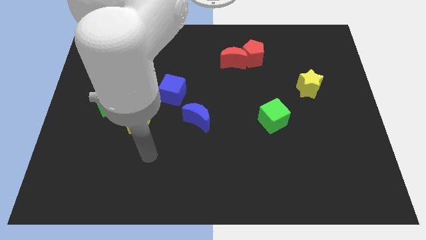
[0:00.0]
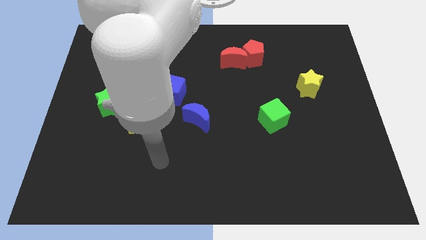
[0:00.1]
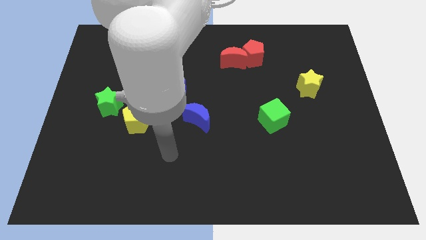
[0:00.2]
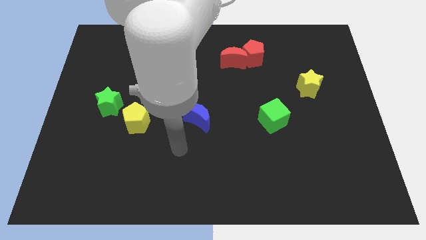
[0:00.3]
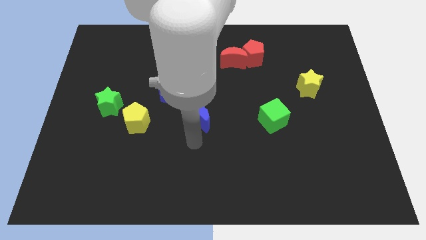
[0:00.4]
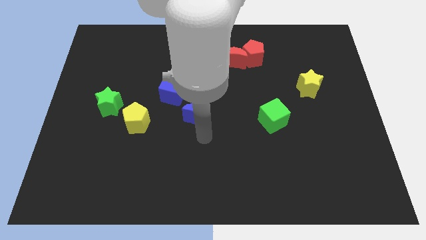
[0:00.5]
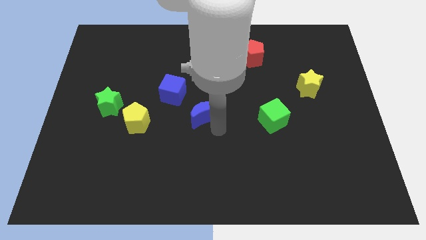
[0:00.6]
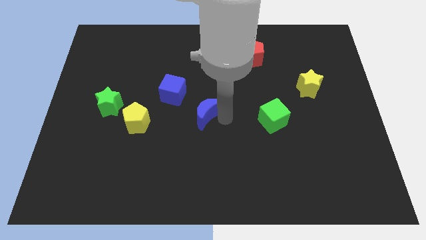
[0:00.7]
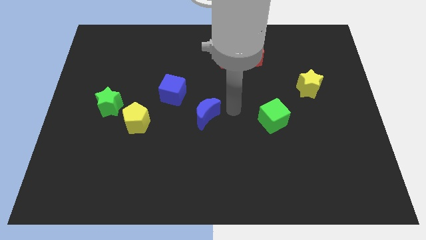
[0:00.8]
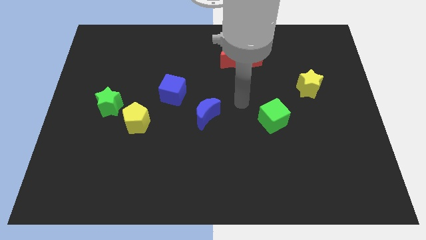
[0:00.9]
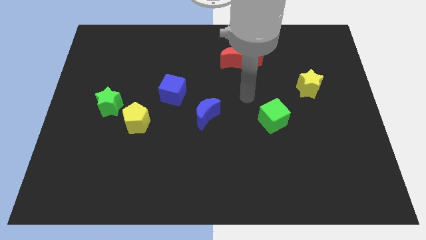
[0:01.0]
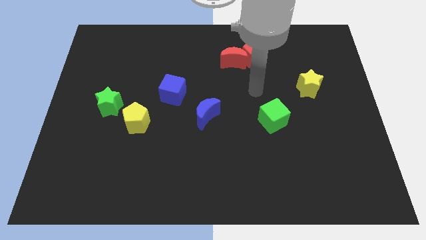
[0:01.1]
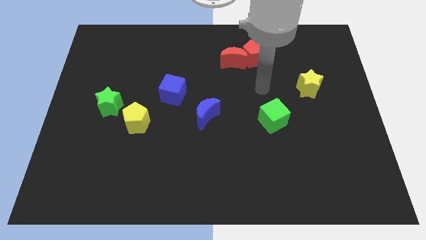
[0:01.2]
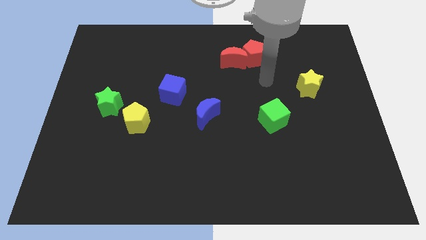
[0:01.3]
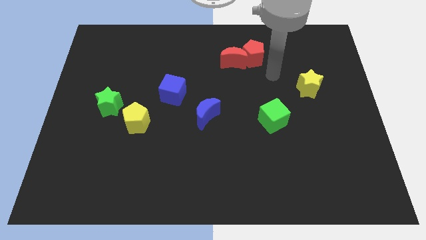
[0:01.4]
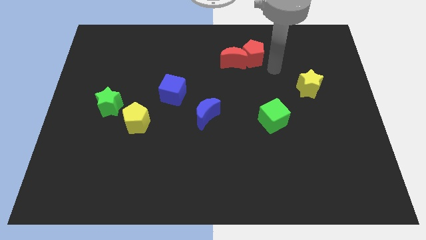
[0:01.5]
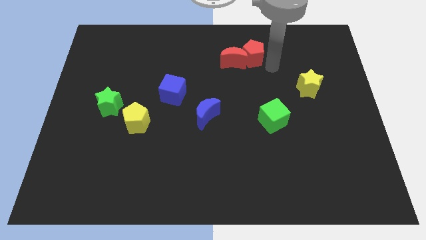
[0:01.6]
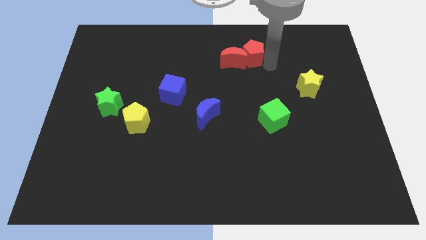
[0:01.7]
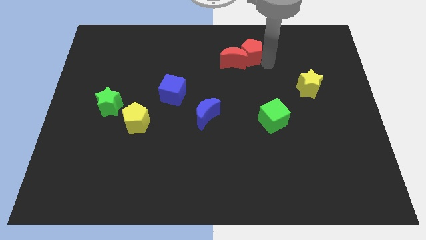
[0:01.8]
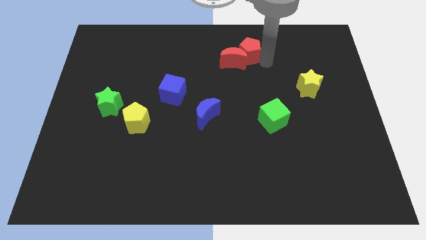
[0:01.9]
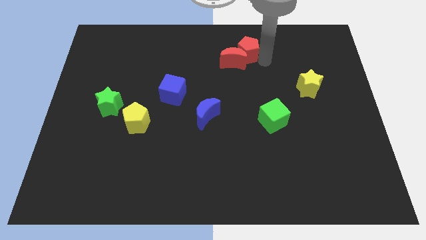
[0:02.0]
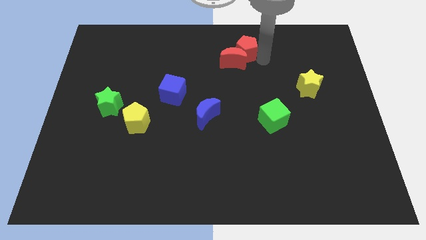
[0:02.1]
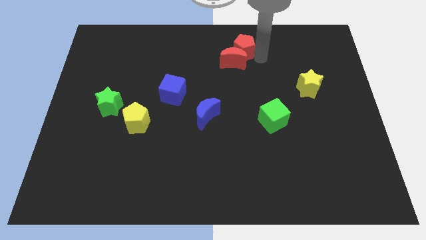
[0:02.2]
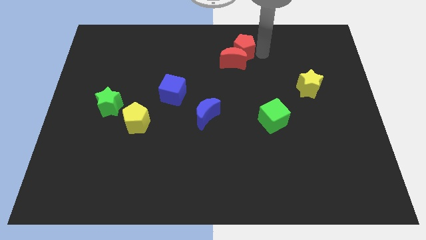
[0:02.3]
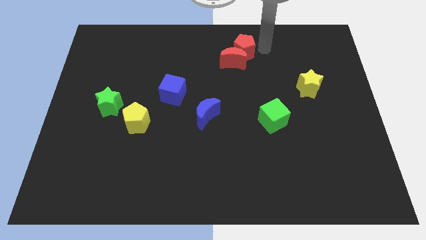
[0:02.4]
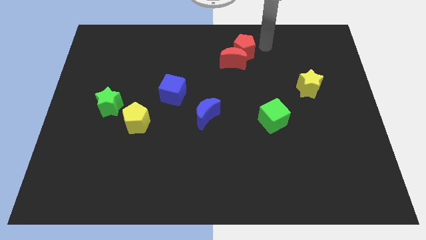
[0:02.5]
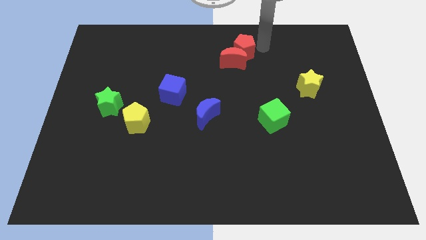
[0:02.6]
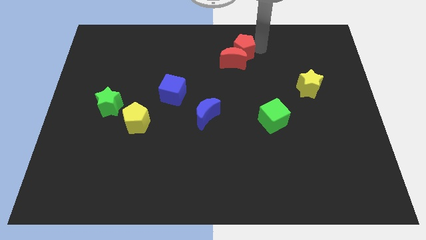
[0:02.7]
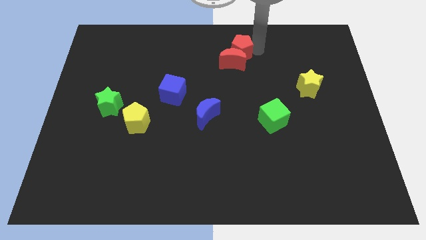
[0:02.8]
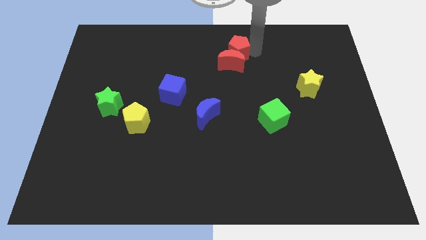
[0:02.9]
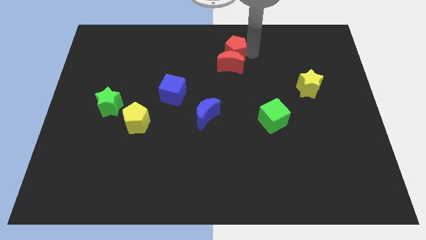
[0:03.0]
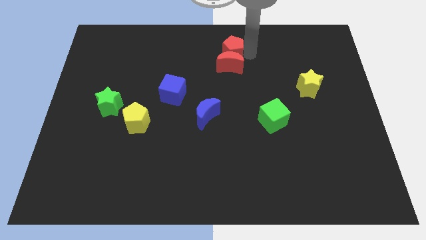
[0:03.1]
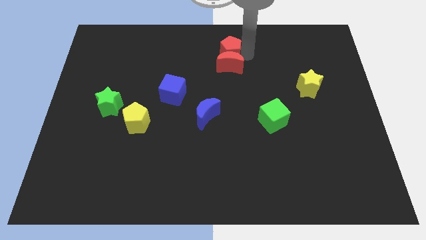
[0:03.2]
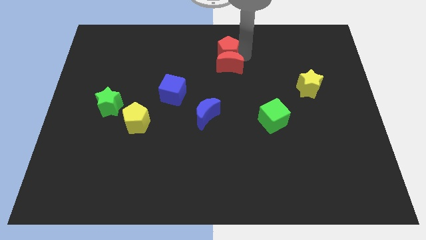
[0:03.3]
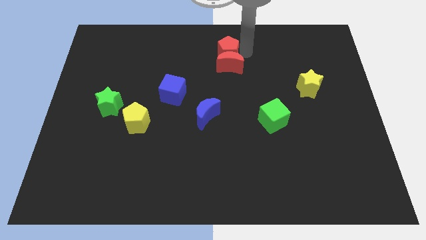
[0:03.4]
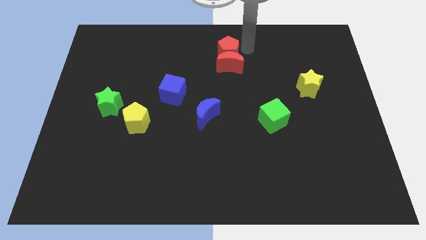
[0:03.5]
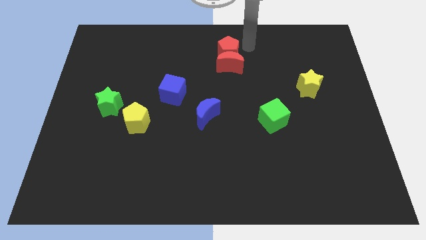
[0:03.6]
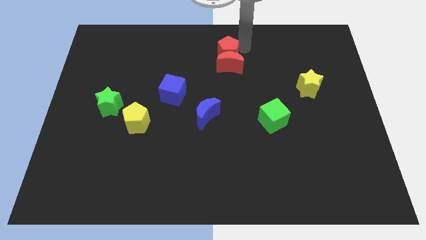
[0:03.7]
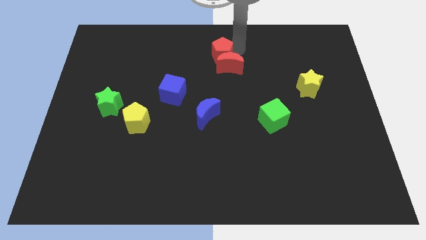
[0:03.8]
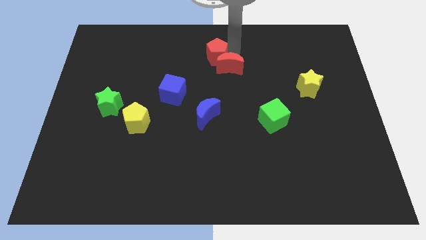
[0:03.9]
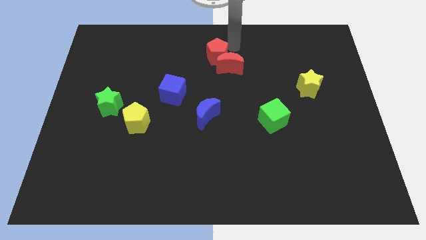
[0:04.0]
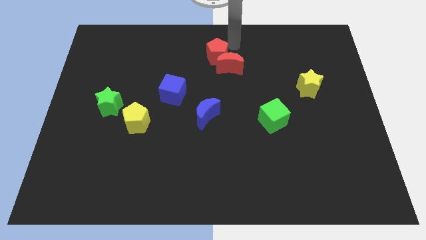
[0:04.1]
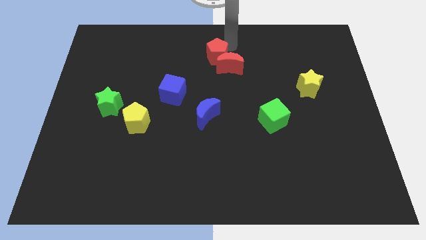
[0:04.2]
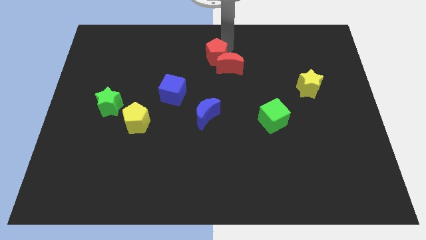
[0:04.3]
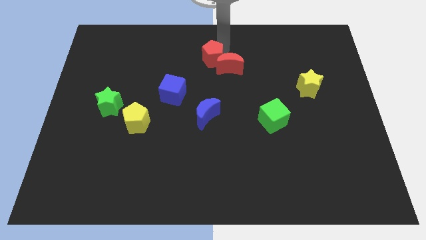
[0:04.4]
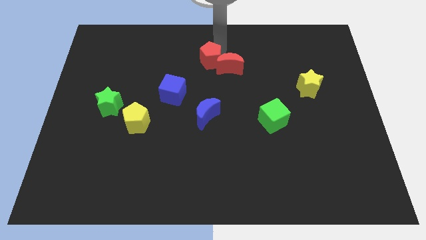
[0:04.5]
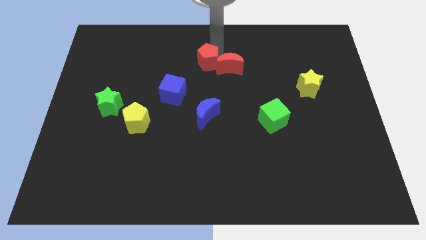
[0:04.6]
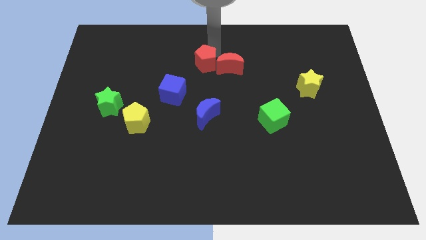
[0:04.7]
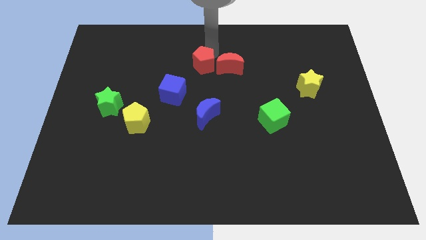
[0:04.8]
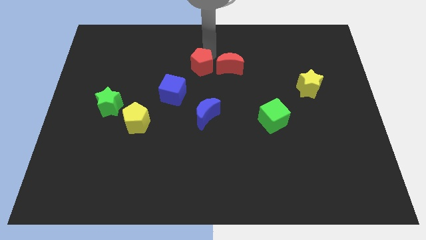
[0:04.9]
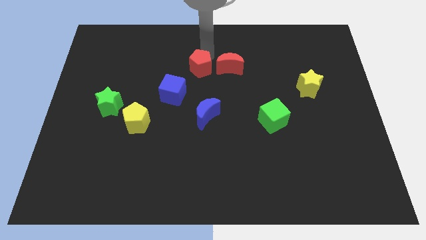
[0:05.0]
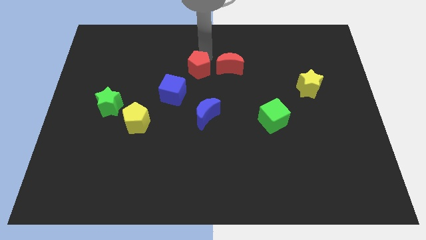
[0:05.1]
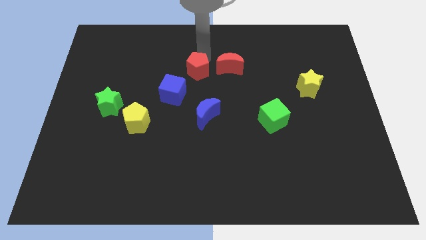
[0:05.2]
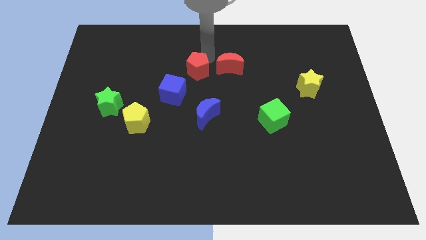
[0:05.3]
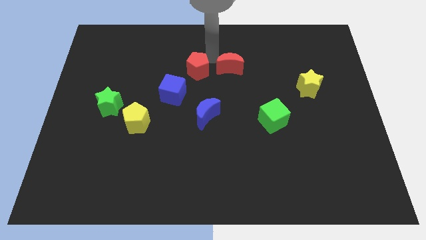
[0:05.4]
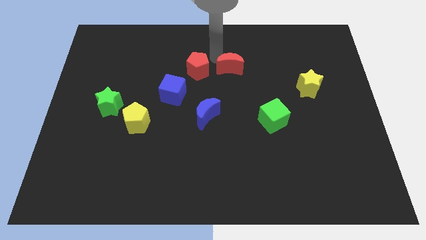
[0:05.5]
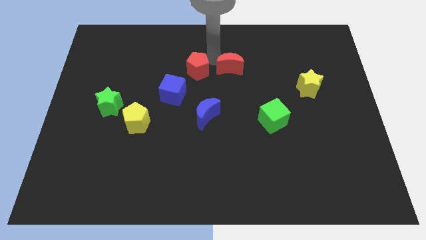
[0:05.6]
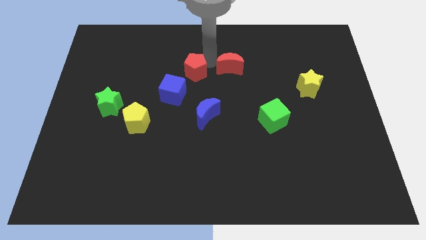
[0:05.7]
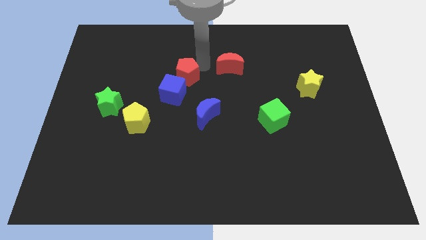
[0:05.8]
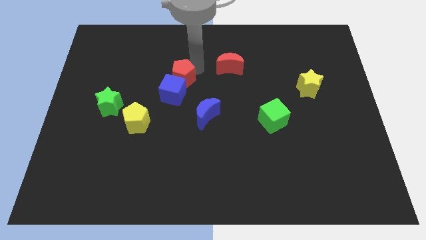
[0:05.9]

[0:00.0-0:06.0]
move the red pentagon to the blue cube

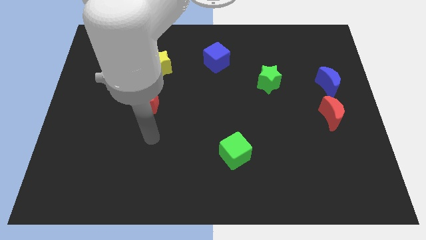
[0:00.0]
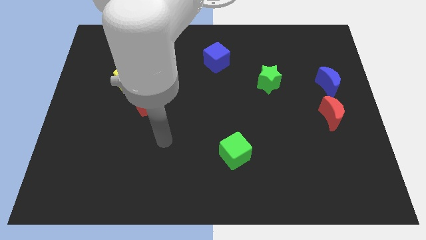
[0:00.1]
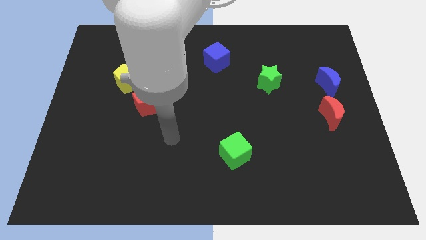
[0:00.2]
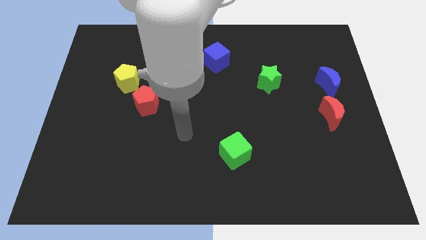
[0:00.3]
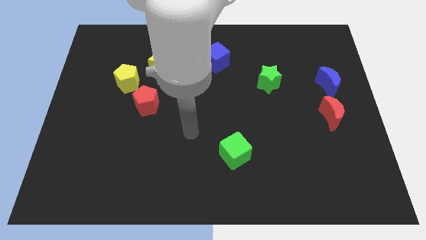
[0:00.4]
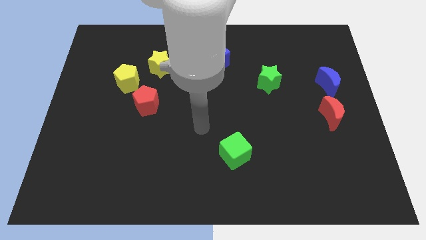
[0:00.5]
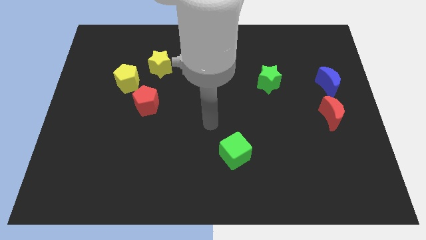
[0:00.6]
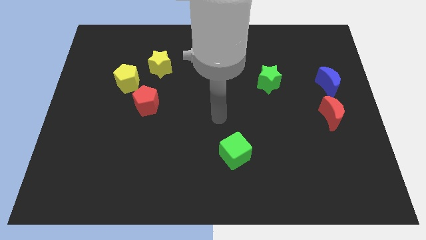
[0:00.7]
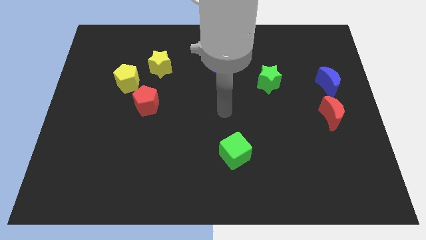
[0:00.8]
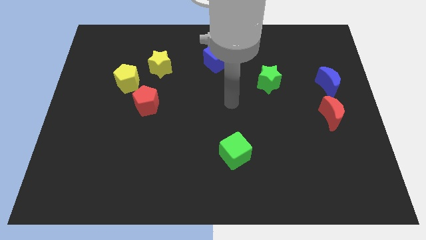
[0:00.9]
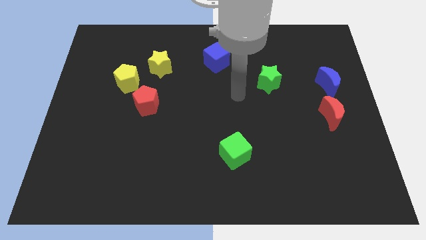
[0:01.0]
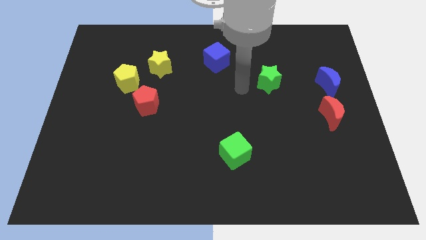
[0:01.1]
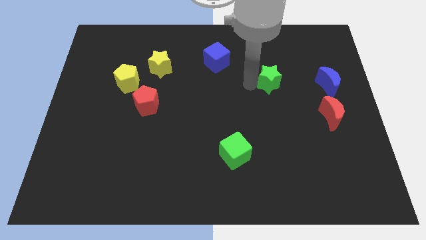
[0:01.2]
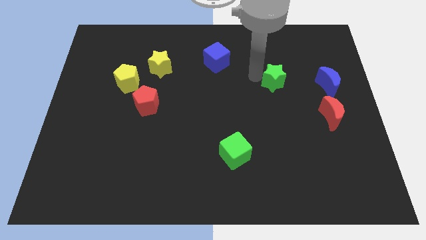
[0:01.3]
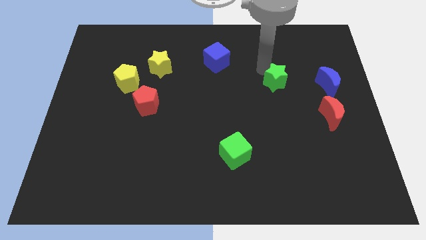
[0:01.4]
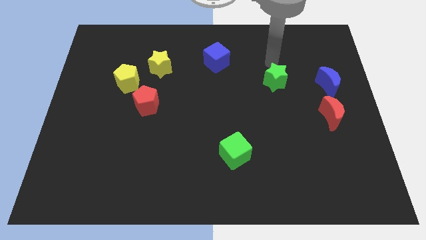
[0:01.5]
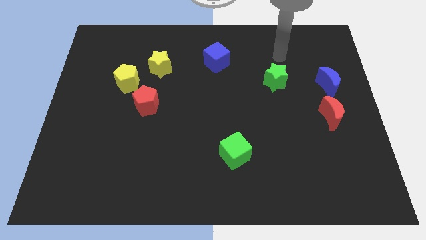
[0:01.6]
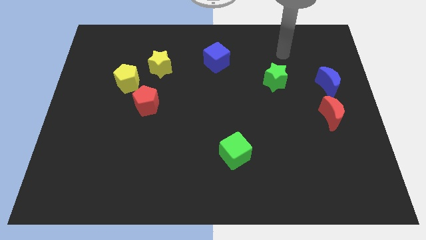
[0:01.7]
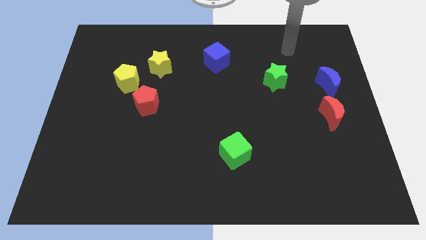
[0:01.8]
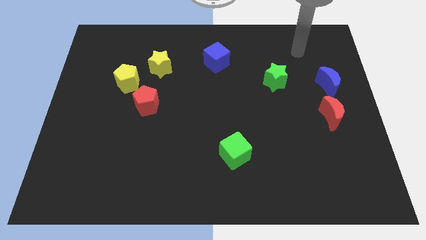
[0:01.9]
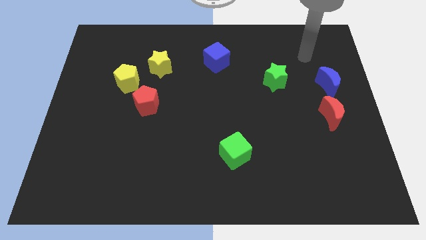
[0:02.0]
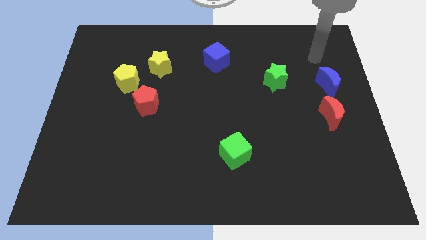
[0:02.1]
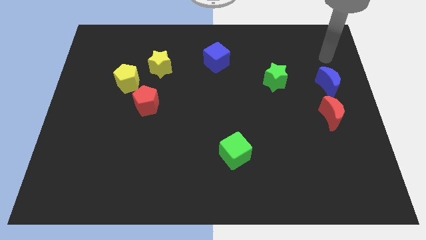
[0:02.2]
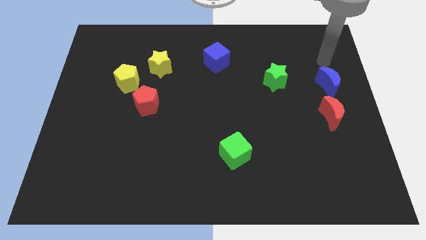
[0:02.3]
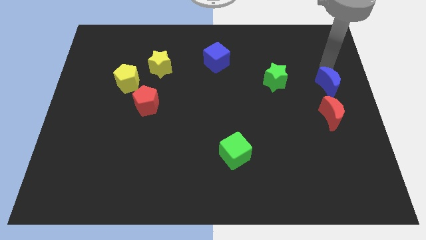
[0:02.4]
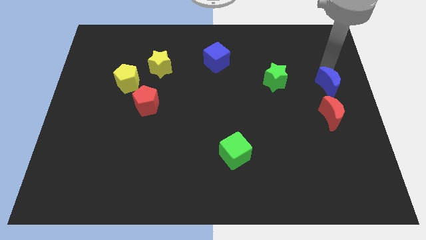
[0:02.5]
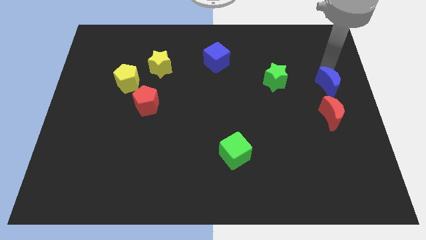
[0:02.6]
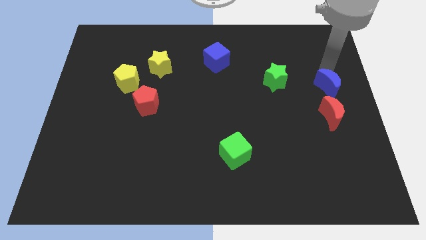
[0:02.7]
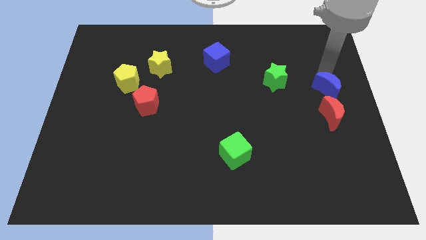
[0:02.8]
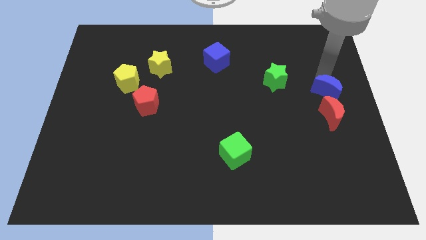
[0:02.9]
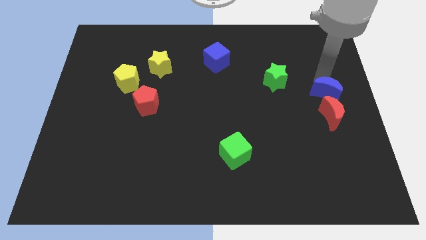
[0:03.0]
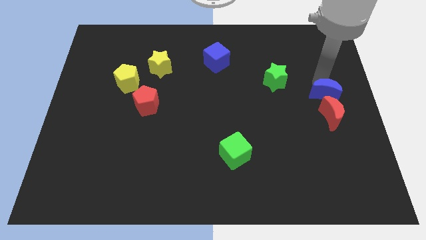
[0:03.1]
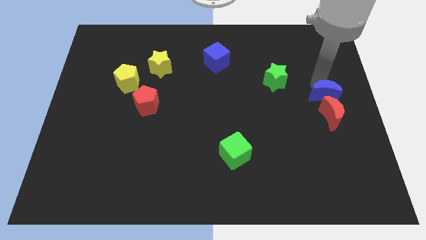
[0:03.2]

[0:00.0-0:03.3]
move the blue moon next to the red moon
